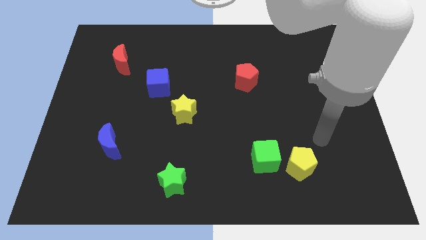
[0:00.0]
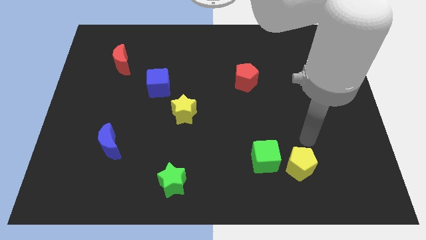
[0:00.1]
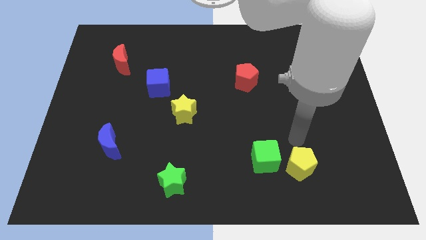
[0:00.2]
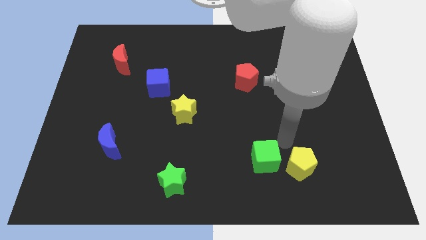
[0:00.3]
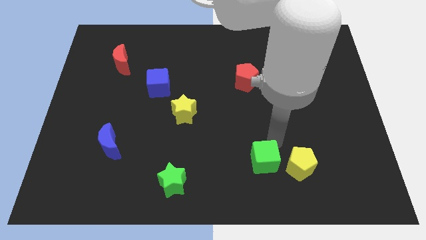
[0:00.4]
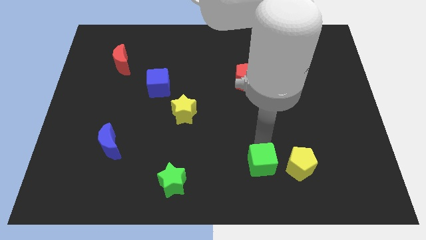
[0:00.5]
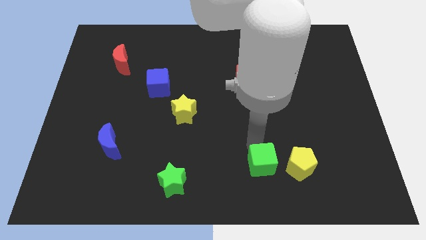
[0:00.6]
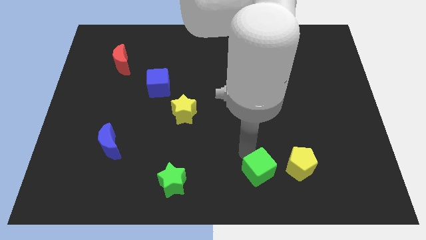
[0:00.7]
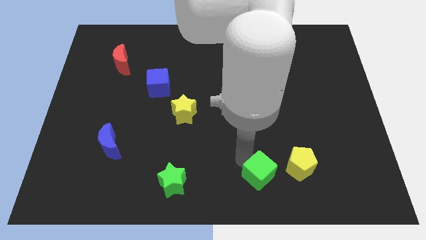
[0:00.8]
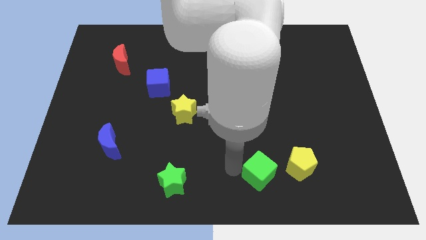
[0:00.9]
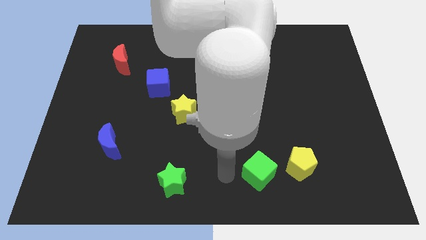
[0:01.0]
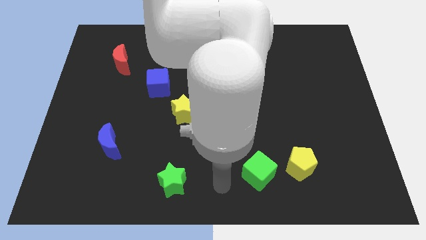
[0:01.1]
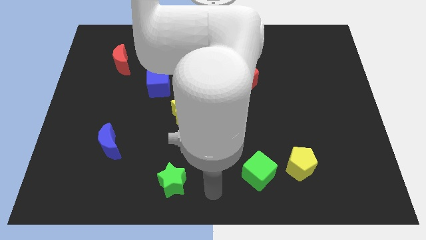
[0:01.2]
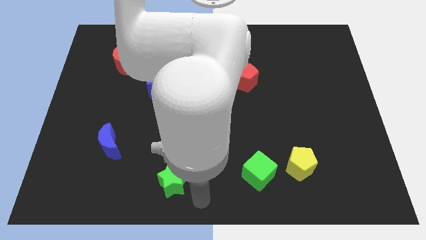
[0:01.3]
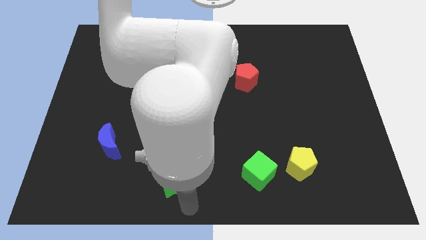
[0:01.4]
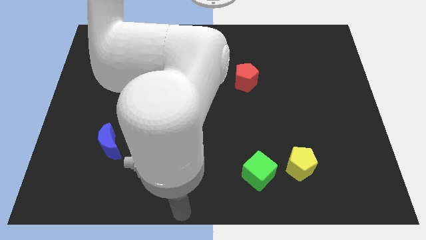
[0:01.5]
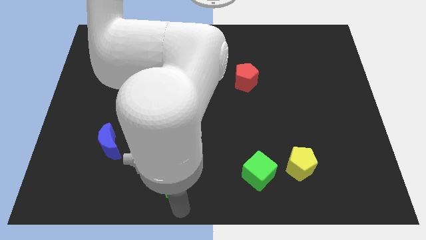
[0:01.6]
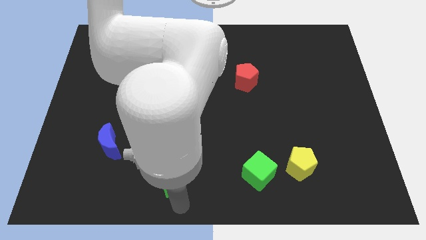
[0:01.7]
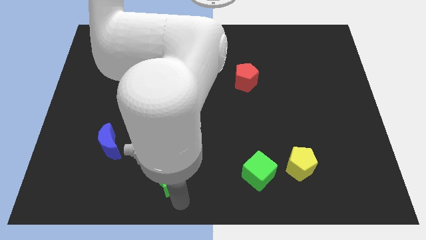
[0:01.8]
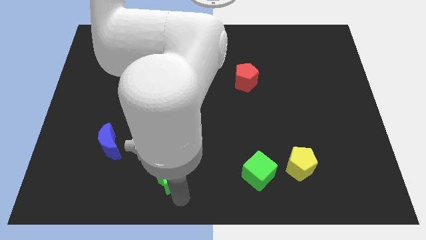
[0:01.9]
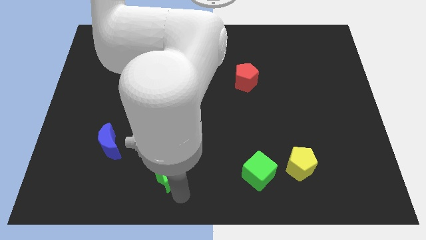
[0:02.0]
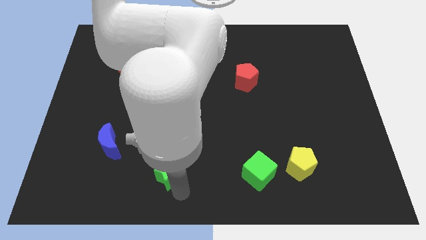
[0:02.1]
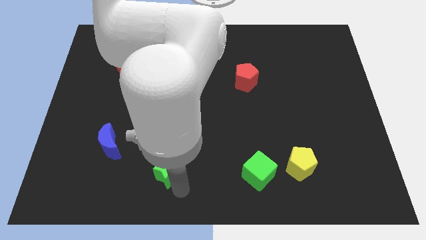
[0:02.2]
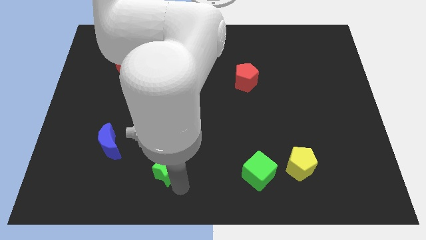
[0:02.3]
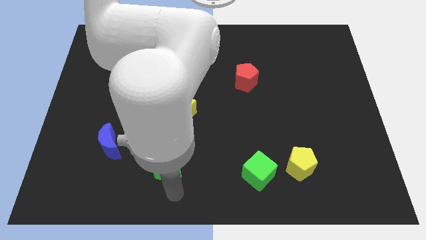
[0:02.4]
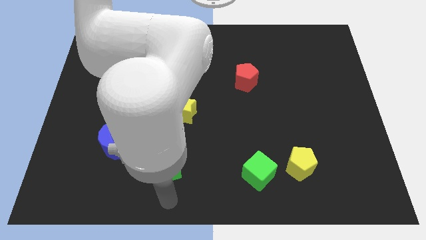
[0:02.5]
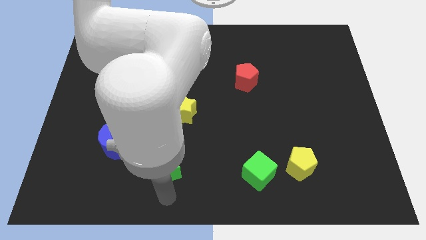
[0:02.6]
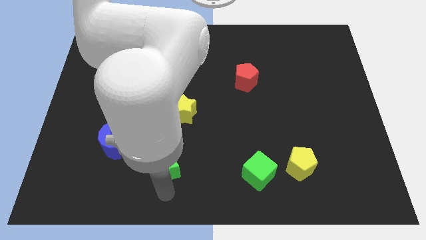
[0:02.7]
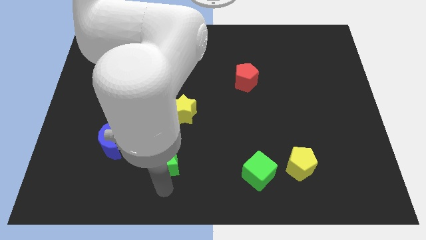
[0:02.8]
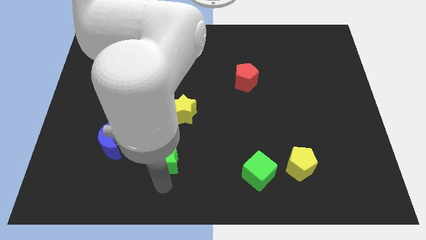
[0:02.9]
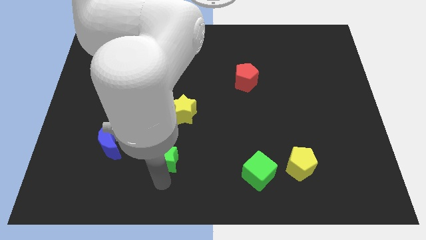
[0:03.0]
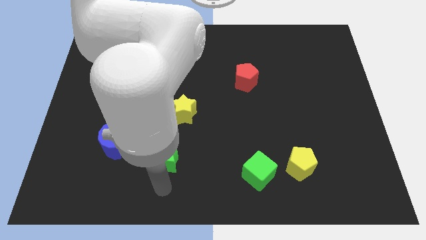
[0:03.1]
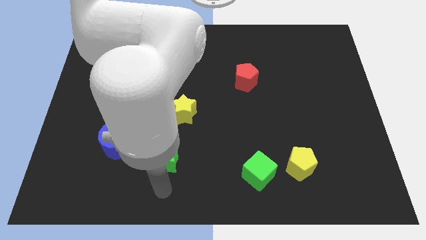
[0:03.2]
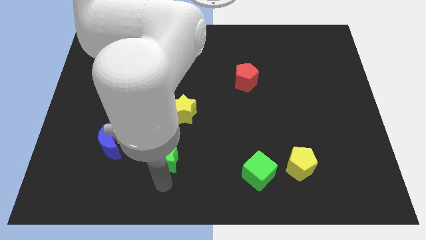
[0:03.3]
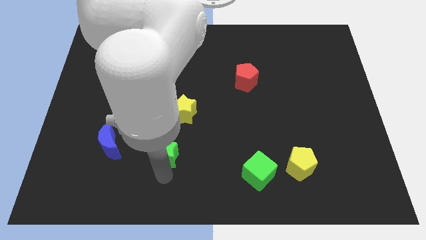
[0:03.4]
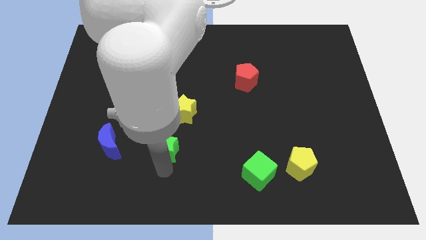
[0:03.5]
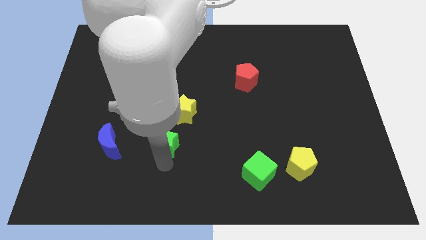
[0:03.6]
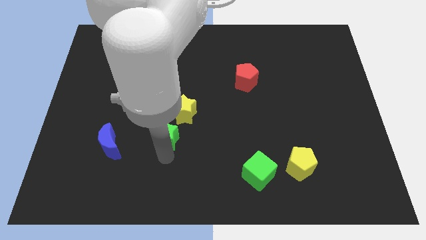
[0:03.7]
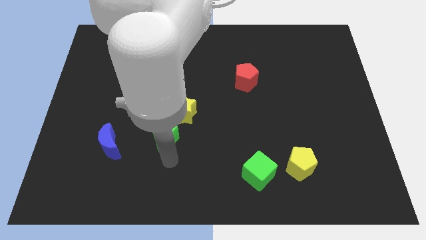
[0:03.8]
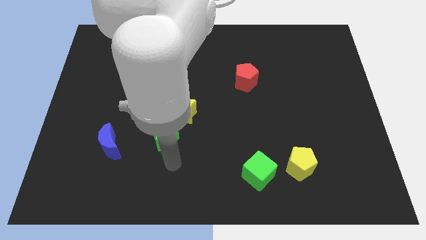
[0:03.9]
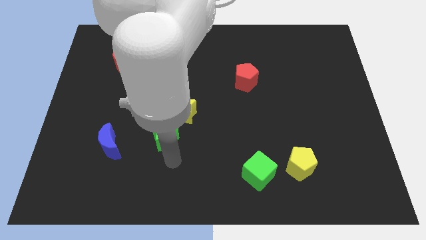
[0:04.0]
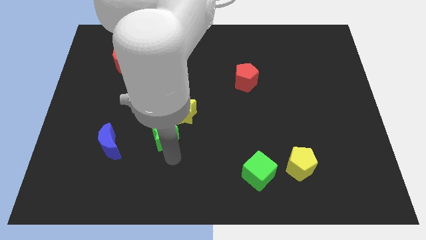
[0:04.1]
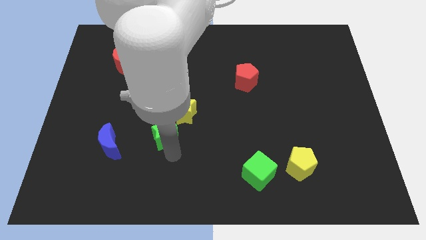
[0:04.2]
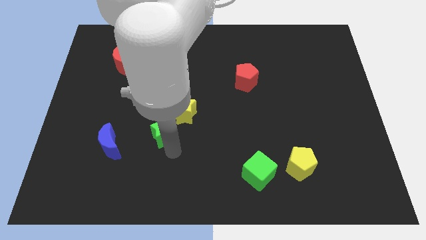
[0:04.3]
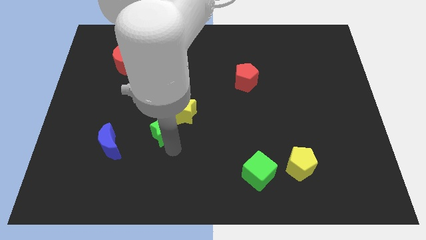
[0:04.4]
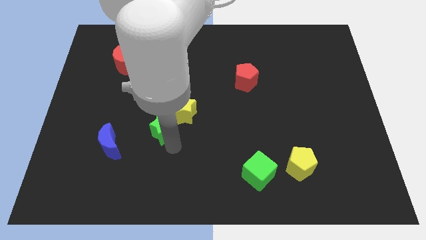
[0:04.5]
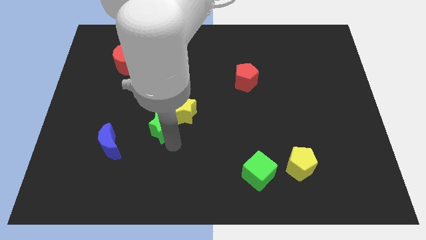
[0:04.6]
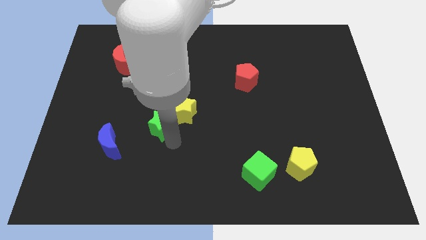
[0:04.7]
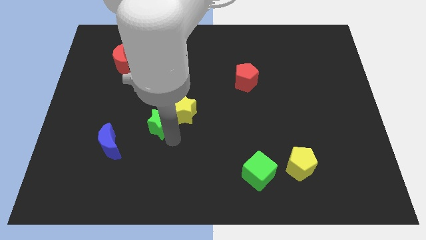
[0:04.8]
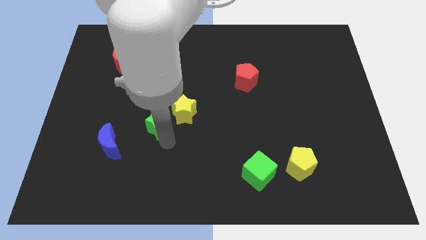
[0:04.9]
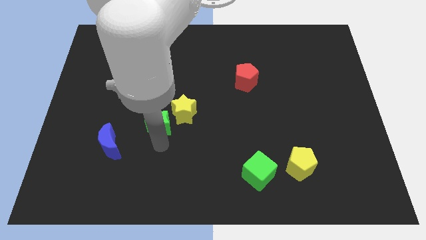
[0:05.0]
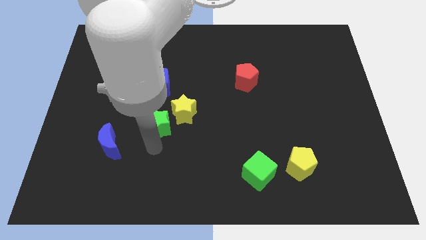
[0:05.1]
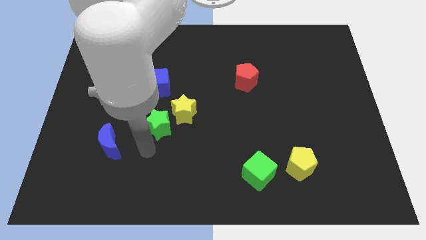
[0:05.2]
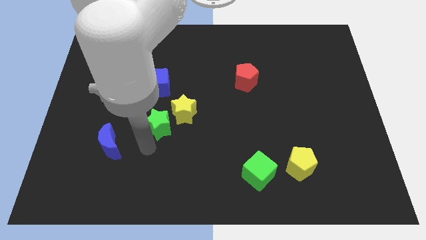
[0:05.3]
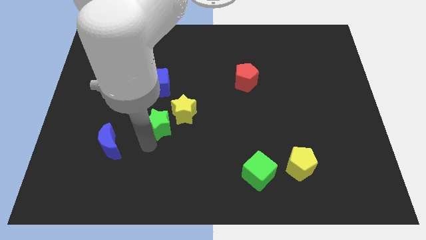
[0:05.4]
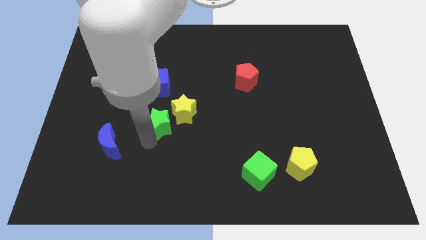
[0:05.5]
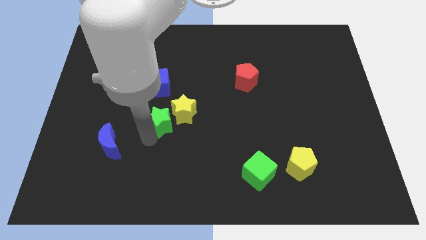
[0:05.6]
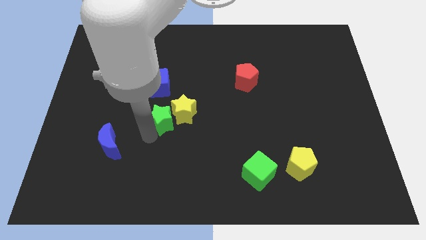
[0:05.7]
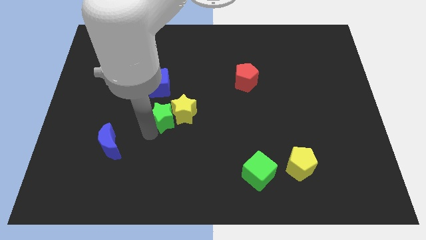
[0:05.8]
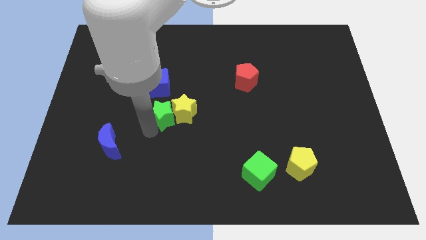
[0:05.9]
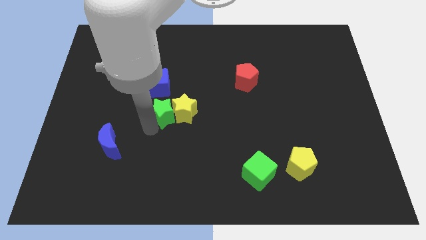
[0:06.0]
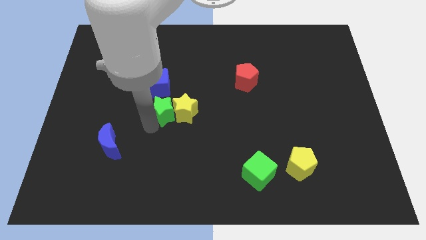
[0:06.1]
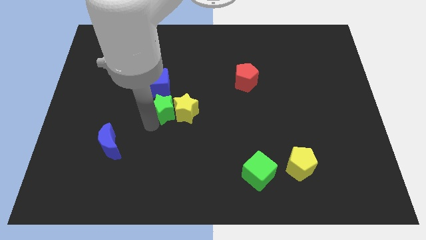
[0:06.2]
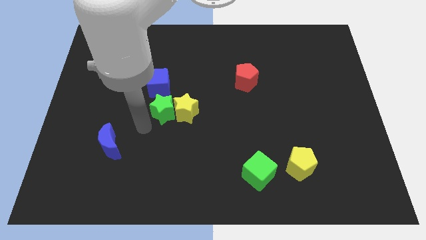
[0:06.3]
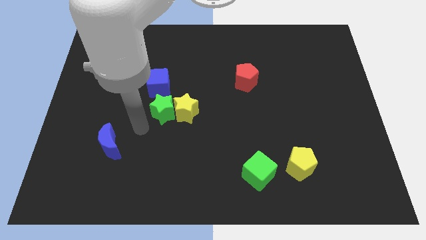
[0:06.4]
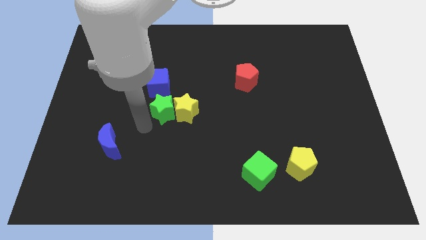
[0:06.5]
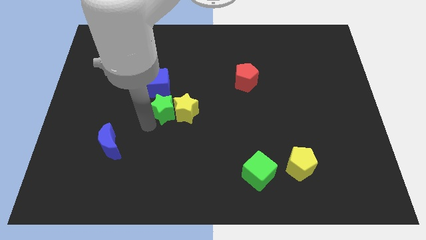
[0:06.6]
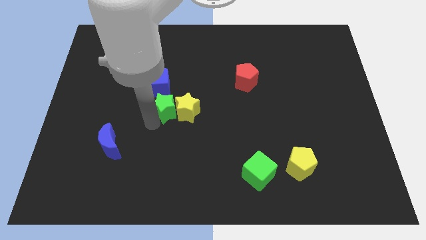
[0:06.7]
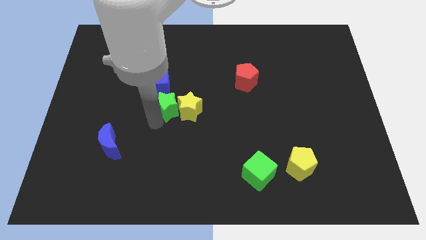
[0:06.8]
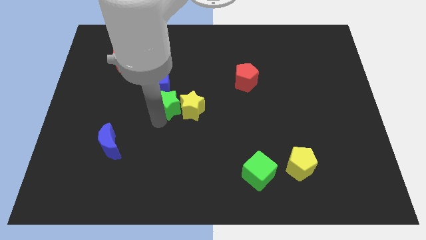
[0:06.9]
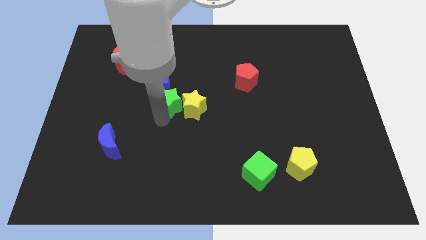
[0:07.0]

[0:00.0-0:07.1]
move the green star up

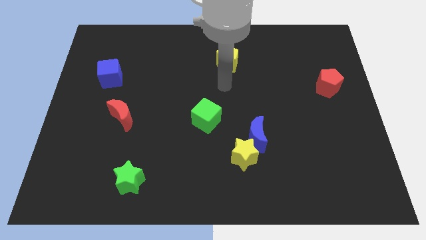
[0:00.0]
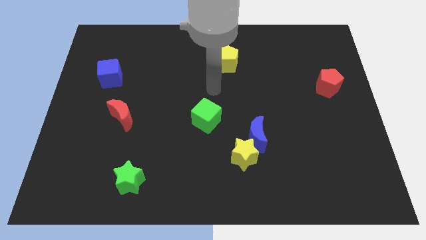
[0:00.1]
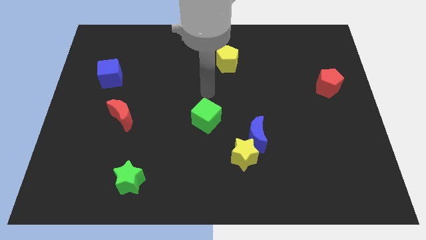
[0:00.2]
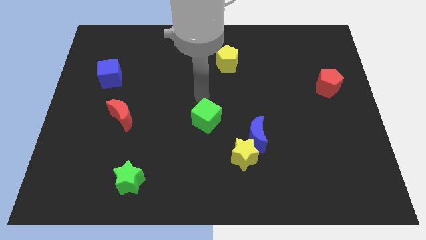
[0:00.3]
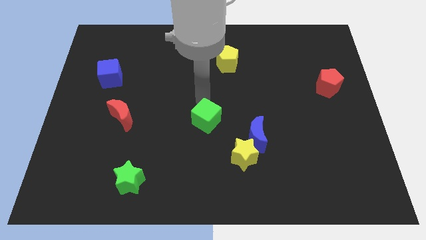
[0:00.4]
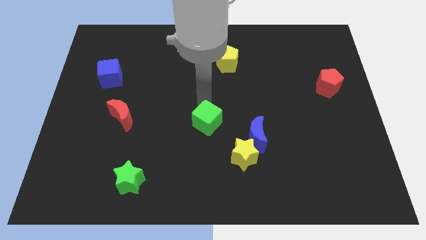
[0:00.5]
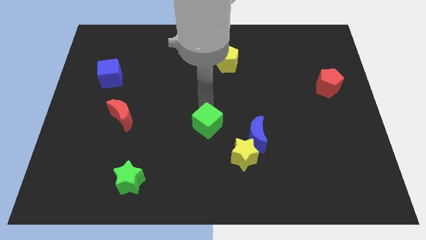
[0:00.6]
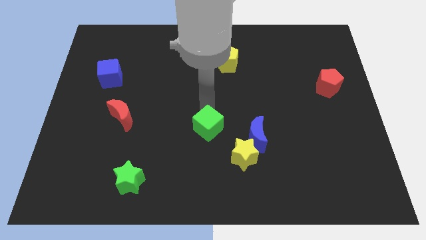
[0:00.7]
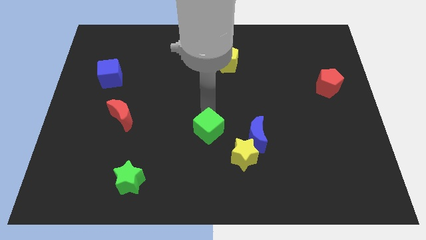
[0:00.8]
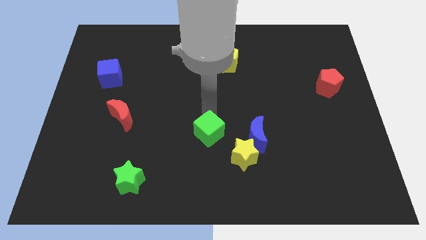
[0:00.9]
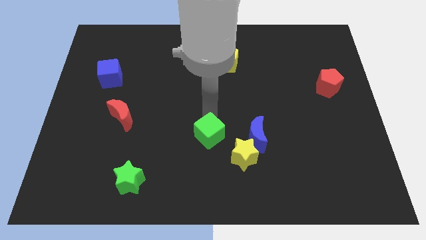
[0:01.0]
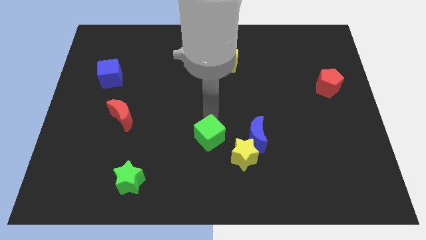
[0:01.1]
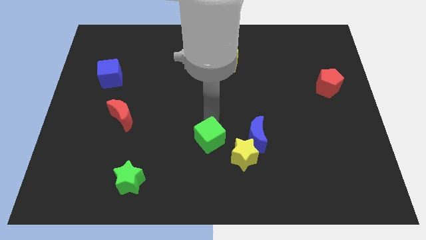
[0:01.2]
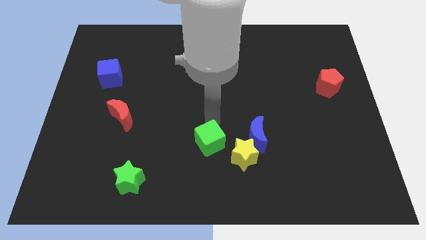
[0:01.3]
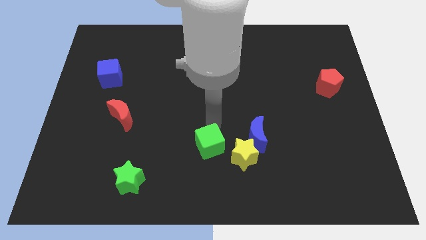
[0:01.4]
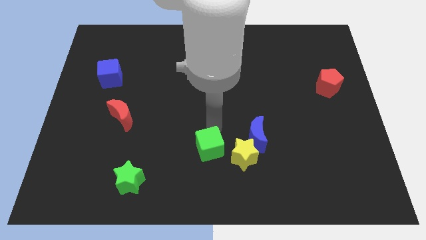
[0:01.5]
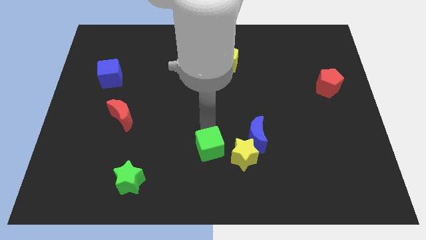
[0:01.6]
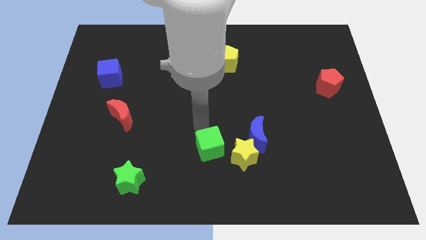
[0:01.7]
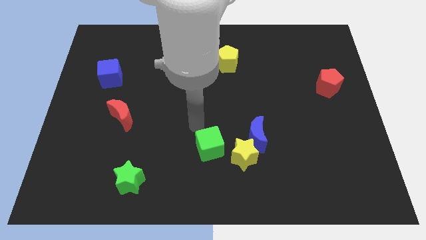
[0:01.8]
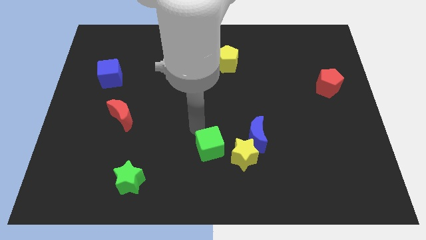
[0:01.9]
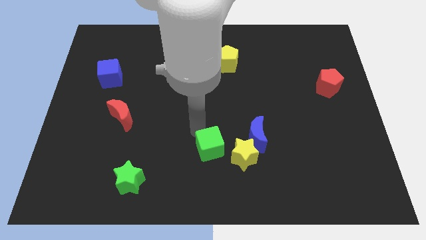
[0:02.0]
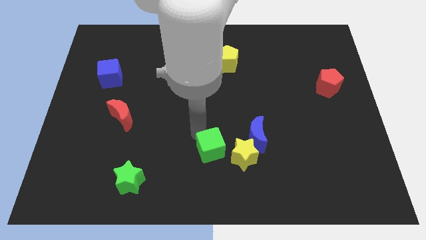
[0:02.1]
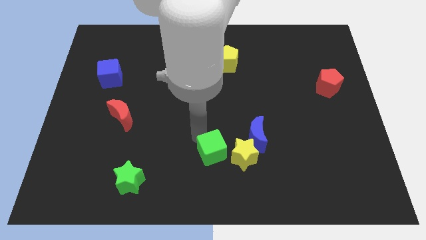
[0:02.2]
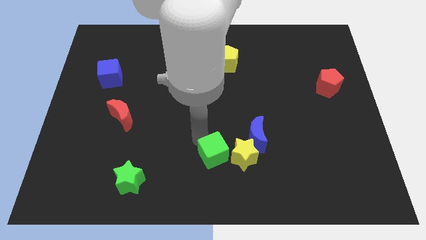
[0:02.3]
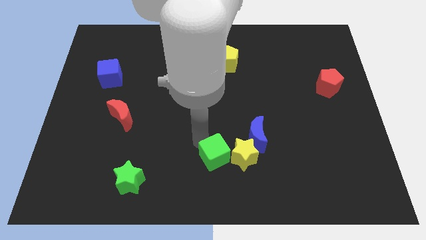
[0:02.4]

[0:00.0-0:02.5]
slightly move the green cube downwards and then right
